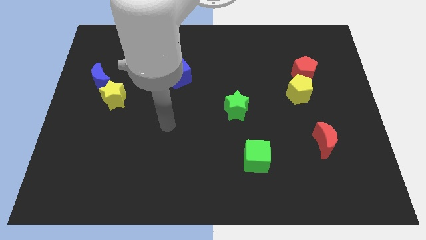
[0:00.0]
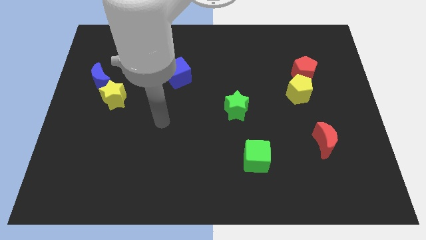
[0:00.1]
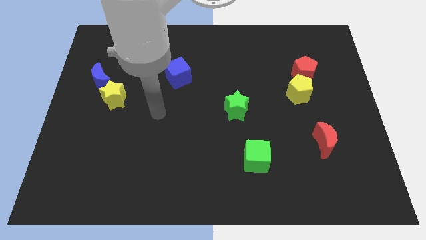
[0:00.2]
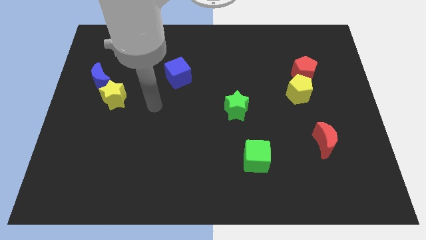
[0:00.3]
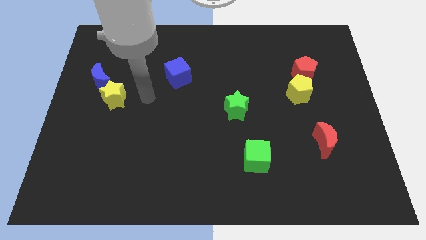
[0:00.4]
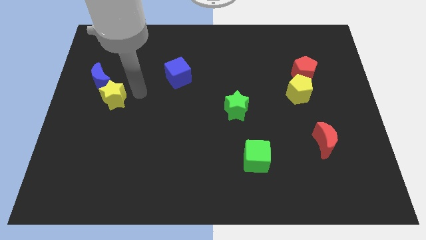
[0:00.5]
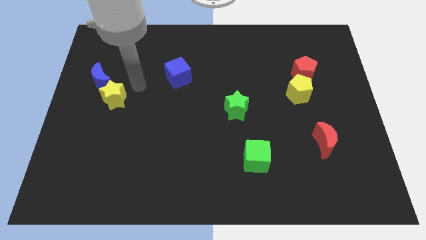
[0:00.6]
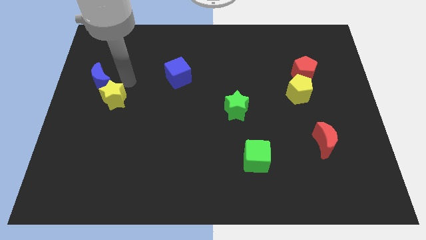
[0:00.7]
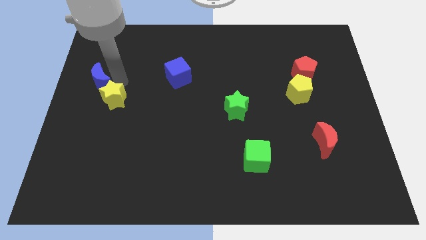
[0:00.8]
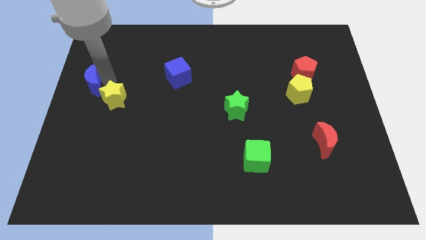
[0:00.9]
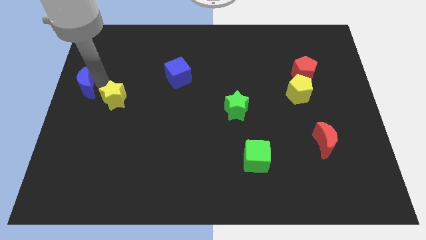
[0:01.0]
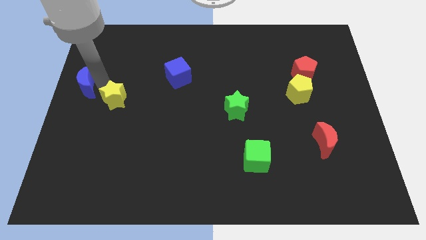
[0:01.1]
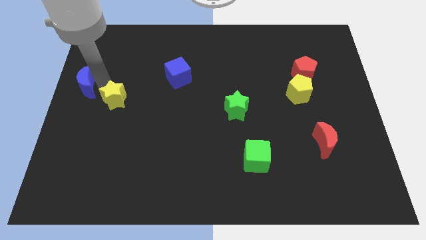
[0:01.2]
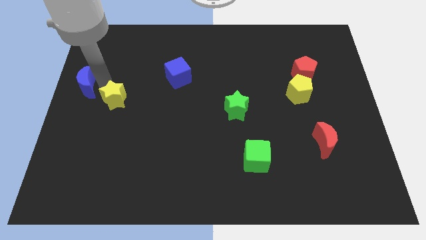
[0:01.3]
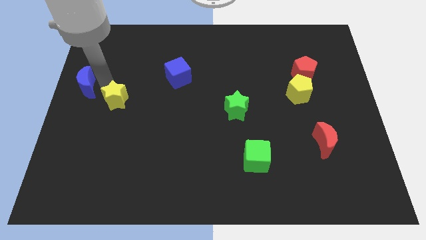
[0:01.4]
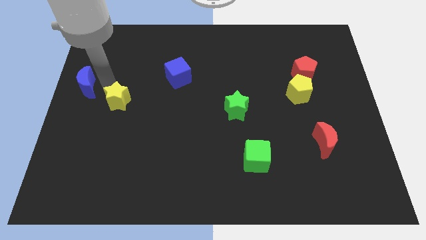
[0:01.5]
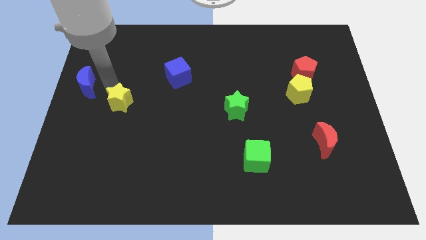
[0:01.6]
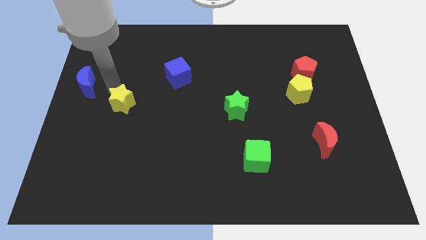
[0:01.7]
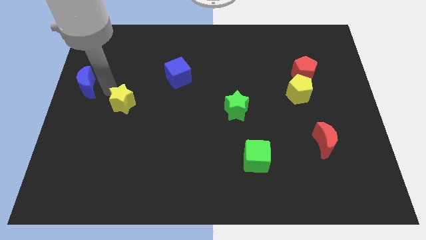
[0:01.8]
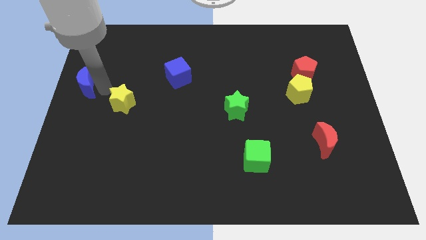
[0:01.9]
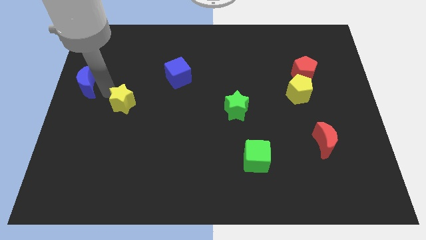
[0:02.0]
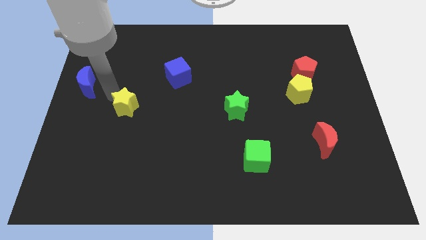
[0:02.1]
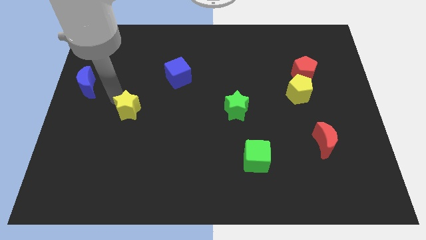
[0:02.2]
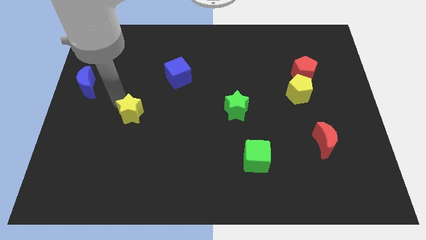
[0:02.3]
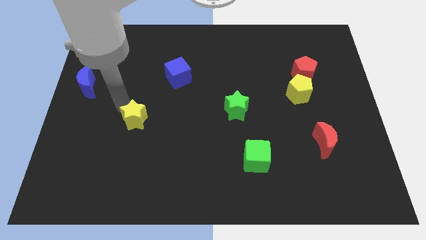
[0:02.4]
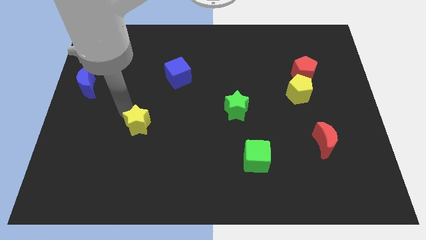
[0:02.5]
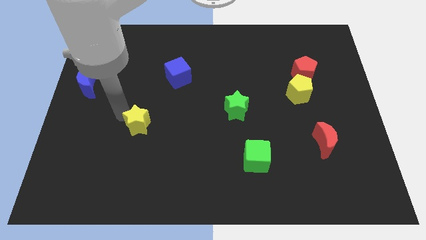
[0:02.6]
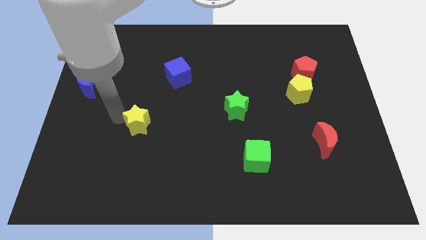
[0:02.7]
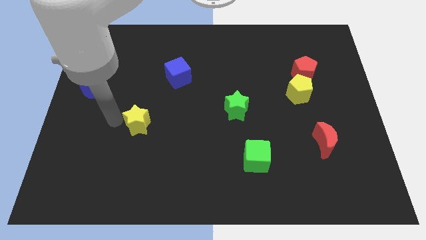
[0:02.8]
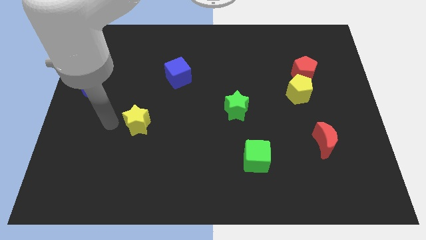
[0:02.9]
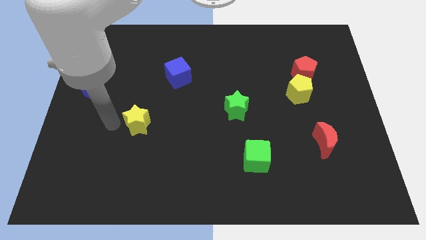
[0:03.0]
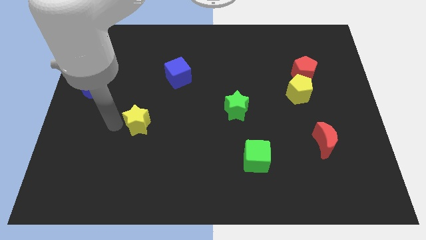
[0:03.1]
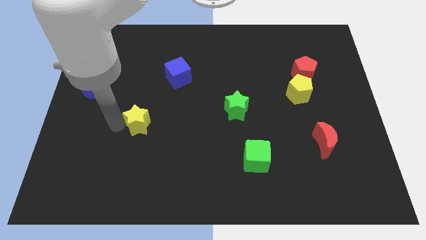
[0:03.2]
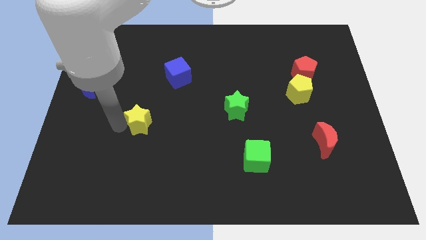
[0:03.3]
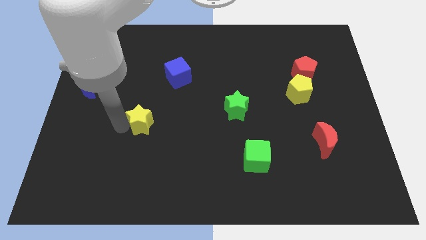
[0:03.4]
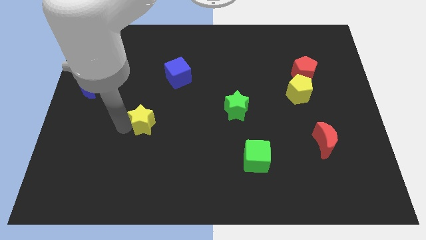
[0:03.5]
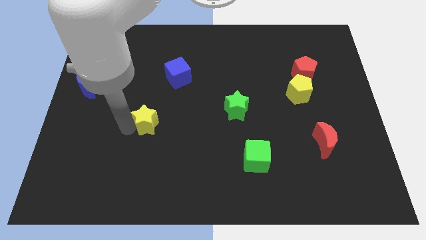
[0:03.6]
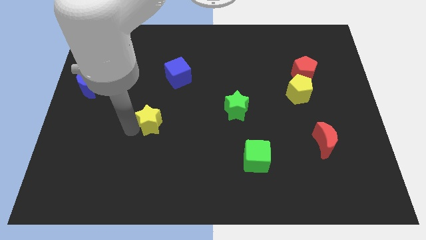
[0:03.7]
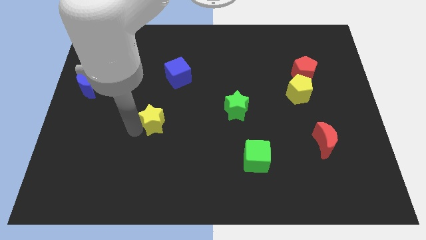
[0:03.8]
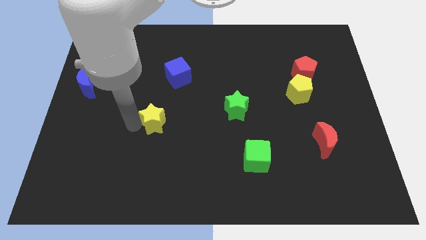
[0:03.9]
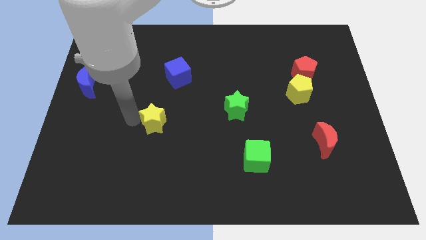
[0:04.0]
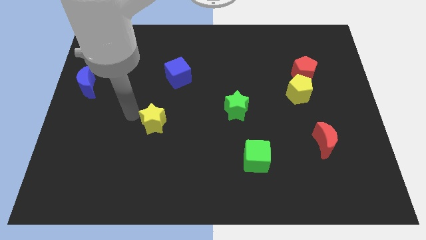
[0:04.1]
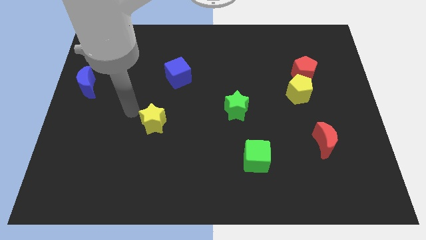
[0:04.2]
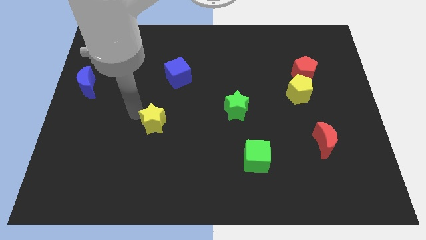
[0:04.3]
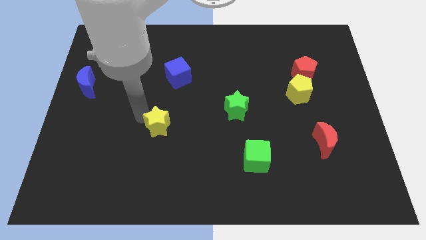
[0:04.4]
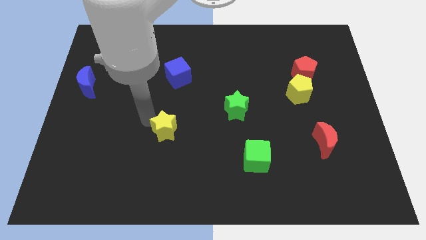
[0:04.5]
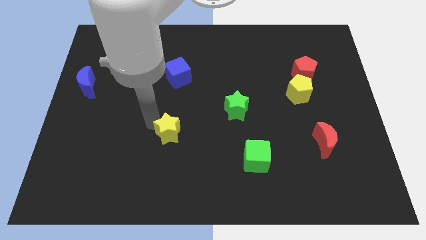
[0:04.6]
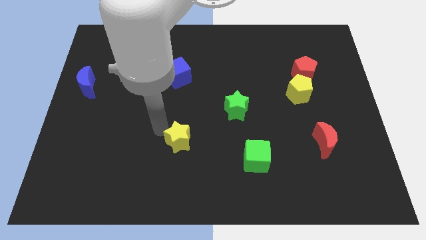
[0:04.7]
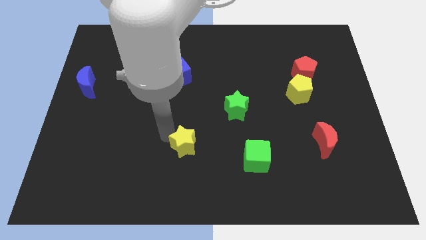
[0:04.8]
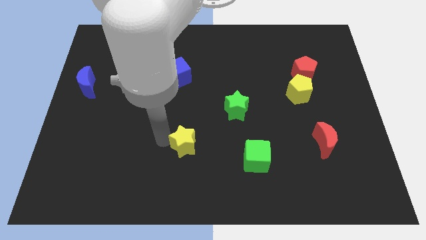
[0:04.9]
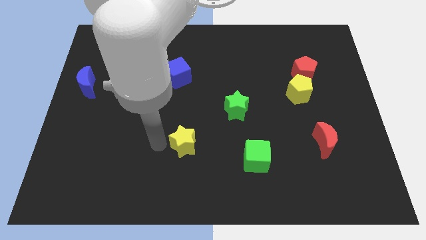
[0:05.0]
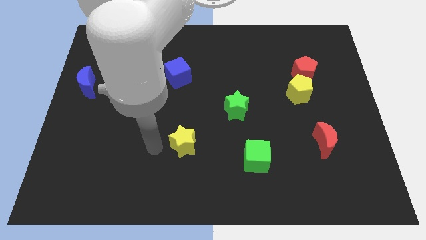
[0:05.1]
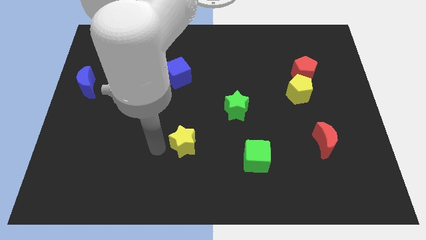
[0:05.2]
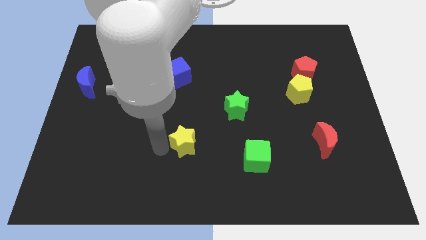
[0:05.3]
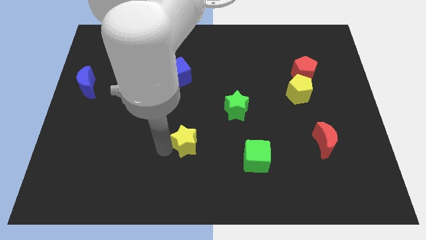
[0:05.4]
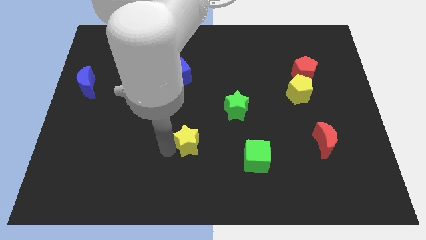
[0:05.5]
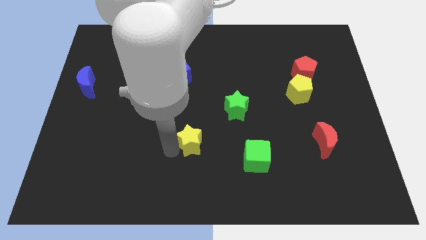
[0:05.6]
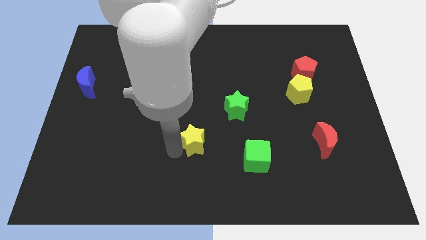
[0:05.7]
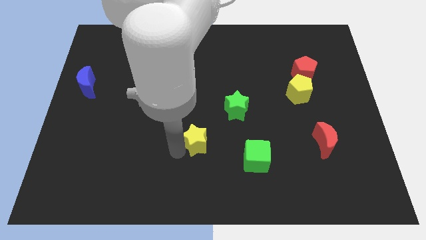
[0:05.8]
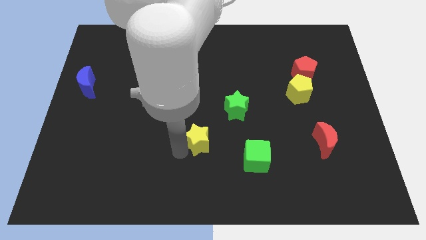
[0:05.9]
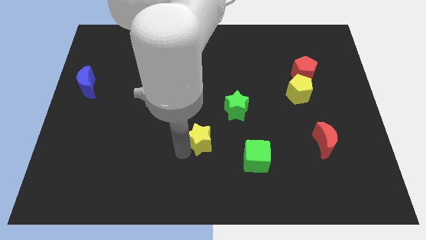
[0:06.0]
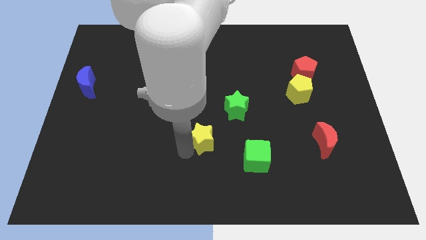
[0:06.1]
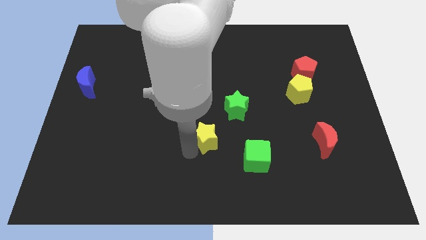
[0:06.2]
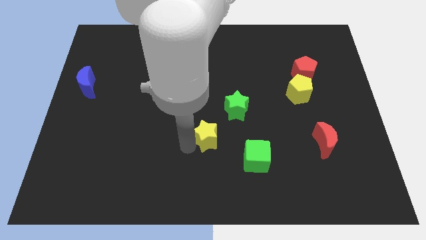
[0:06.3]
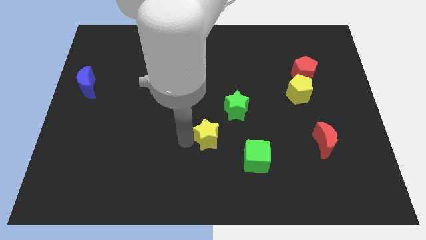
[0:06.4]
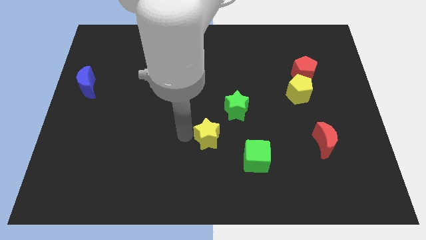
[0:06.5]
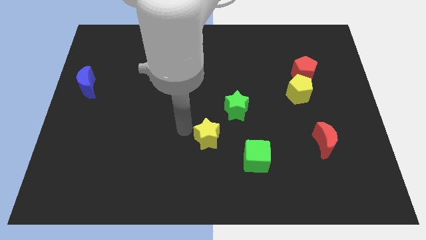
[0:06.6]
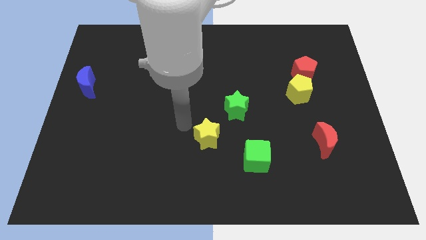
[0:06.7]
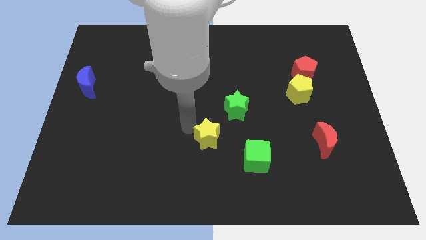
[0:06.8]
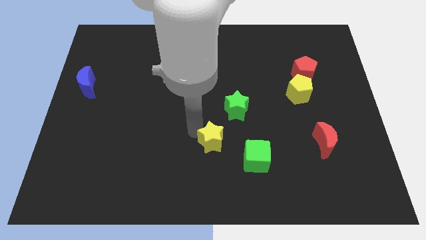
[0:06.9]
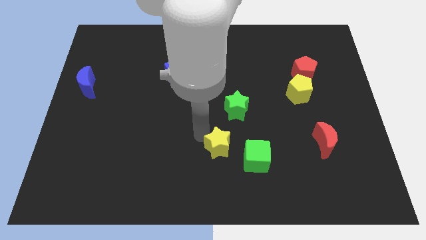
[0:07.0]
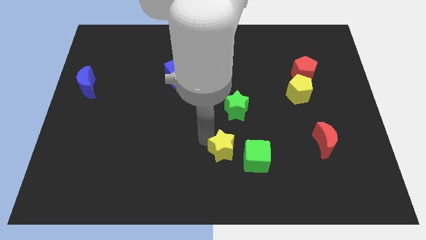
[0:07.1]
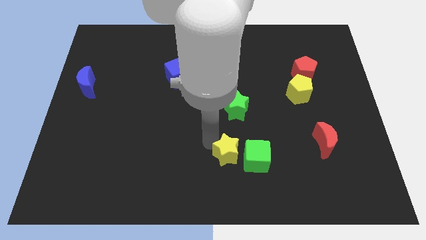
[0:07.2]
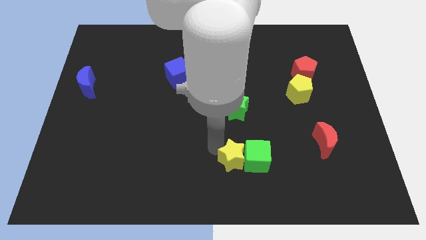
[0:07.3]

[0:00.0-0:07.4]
put the yellow star close to the green cube

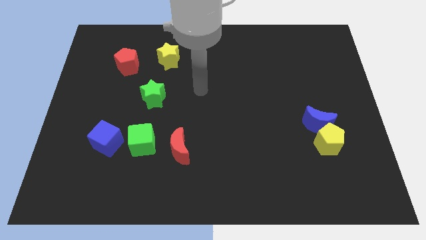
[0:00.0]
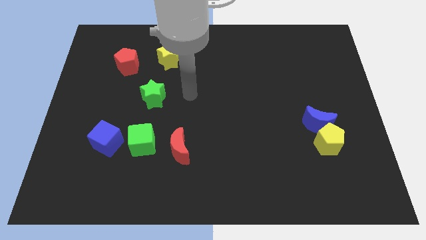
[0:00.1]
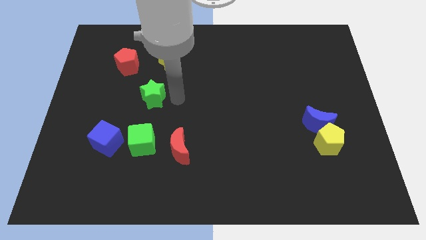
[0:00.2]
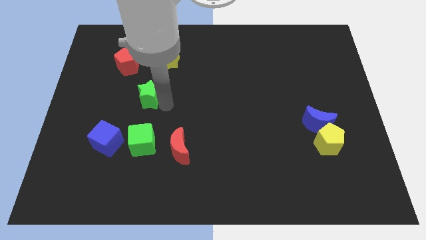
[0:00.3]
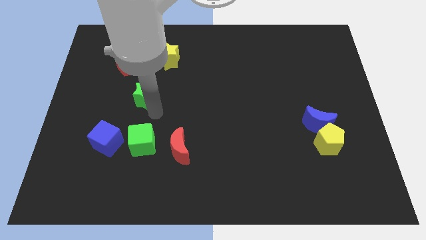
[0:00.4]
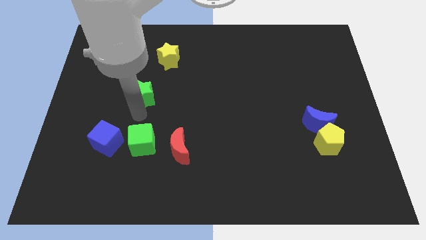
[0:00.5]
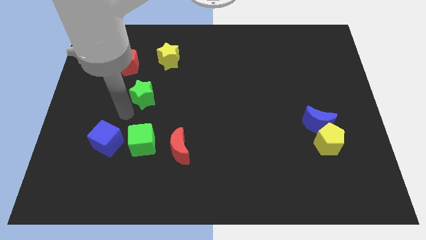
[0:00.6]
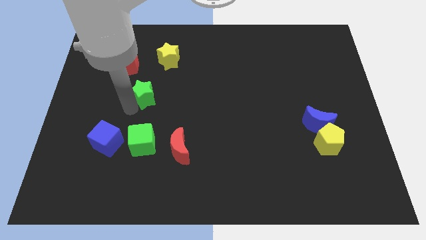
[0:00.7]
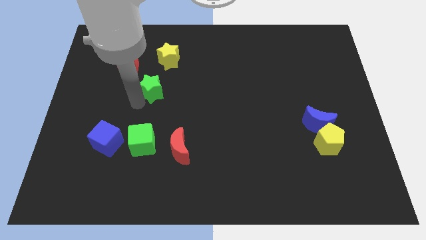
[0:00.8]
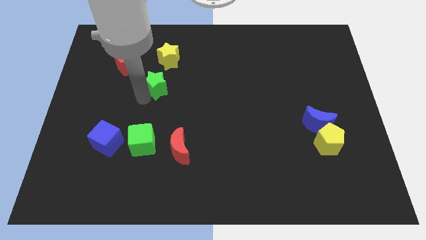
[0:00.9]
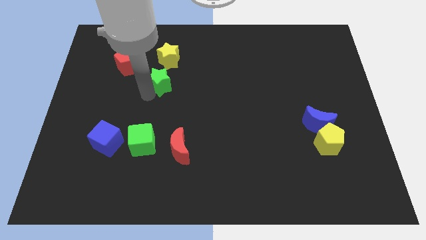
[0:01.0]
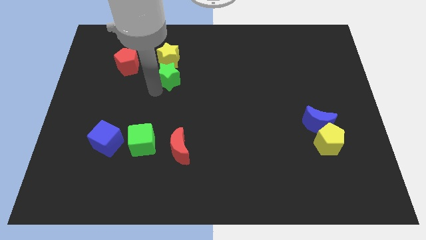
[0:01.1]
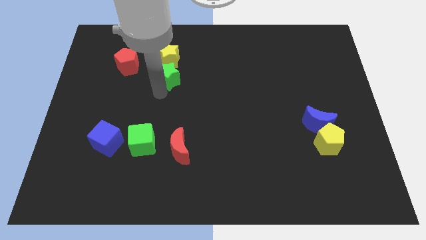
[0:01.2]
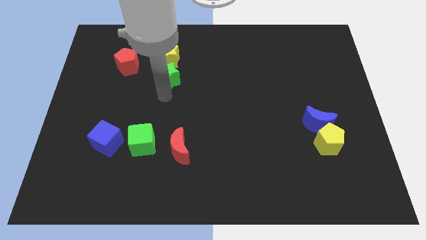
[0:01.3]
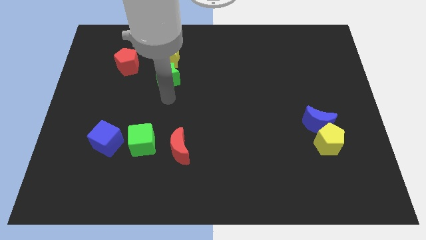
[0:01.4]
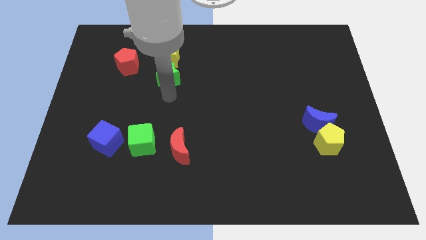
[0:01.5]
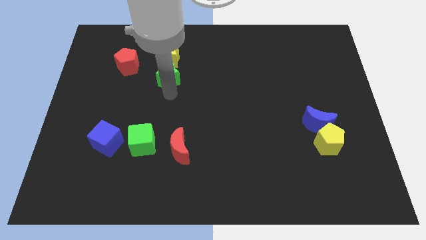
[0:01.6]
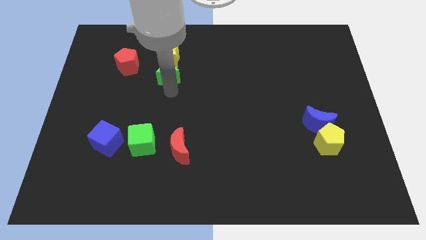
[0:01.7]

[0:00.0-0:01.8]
move the green star towards the yellow star
